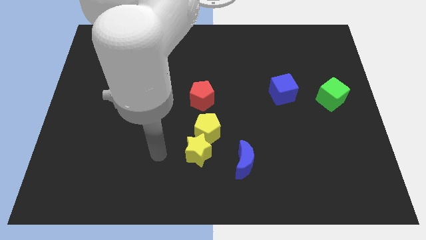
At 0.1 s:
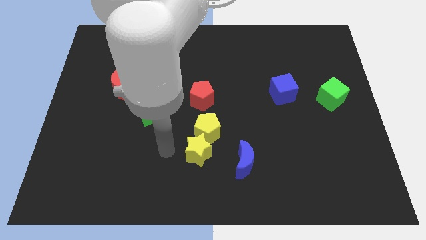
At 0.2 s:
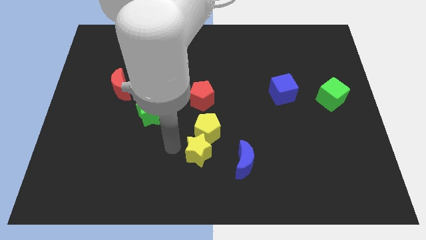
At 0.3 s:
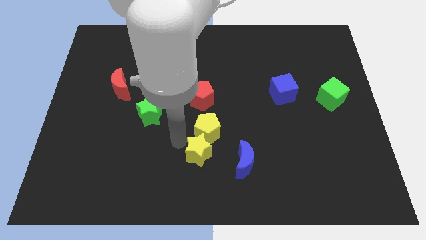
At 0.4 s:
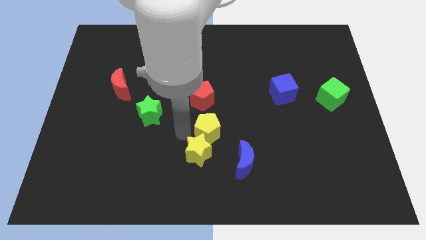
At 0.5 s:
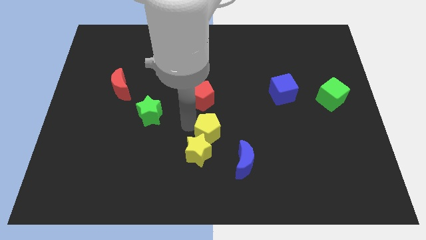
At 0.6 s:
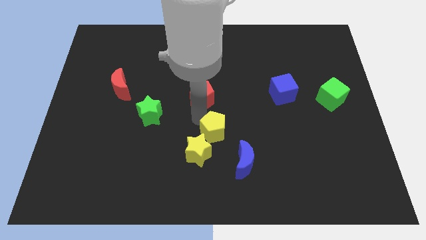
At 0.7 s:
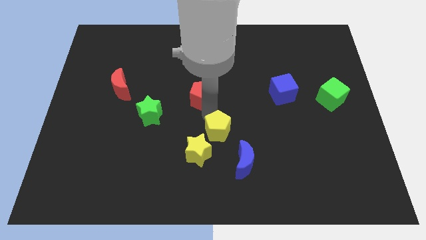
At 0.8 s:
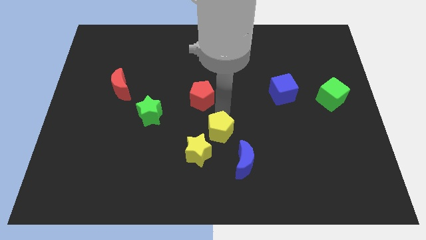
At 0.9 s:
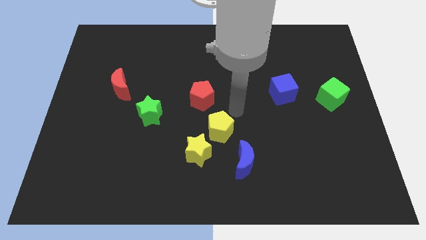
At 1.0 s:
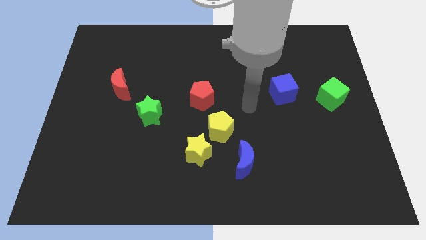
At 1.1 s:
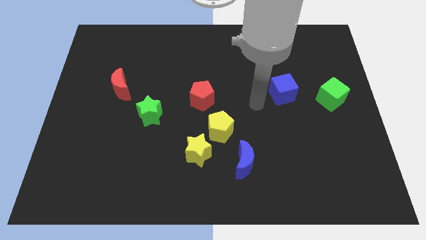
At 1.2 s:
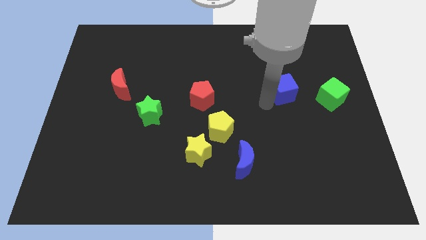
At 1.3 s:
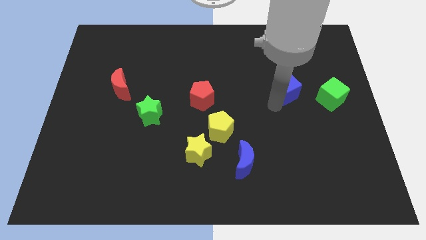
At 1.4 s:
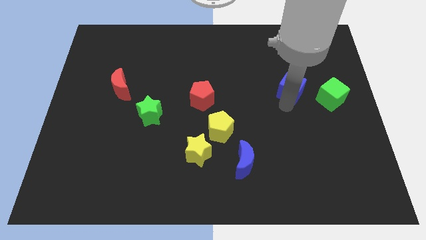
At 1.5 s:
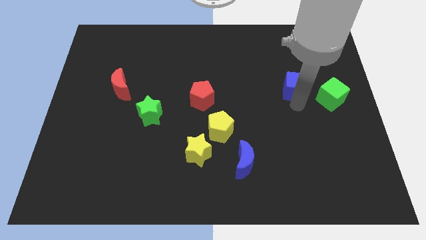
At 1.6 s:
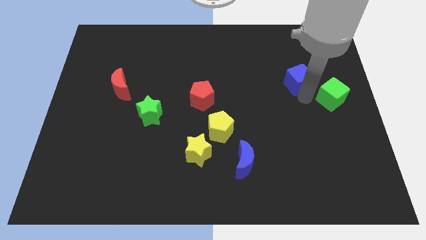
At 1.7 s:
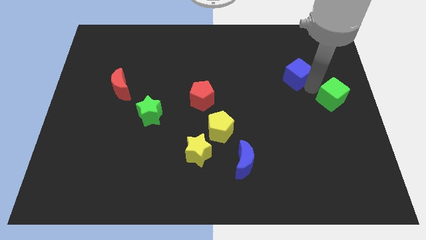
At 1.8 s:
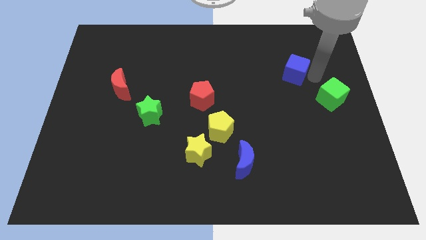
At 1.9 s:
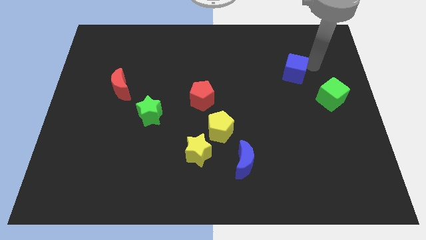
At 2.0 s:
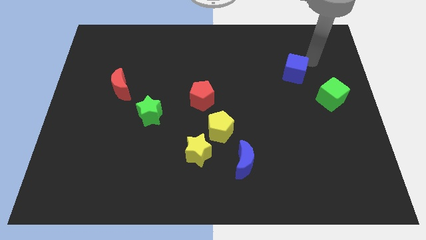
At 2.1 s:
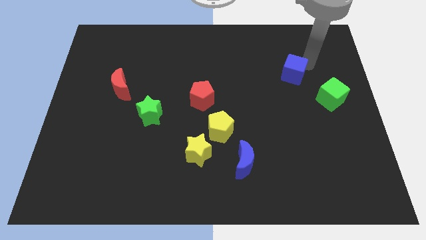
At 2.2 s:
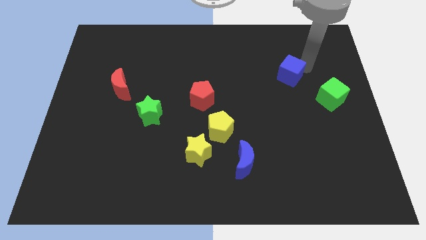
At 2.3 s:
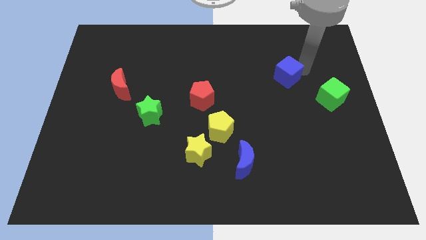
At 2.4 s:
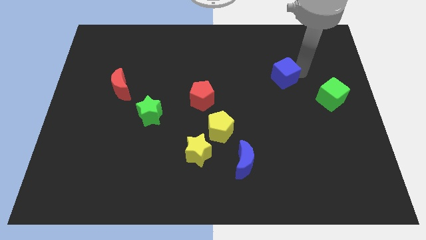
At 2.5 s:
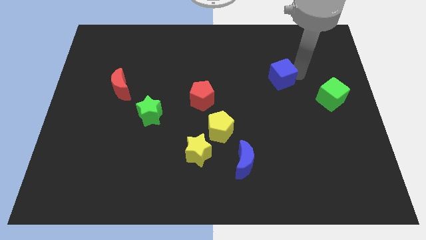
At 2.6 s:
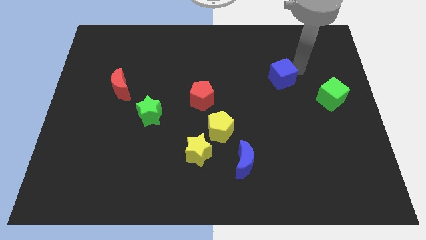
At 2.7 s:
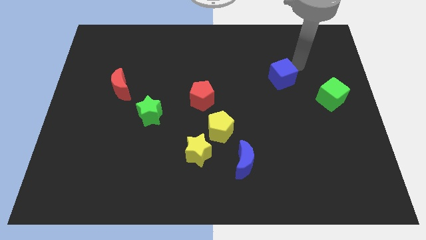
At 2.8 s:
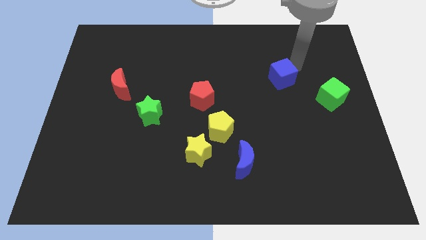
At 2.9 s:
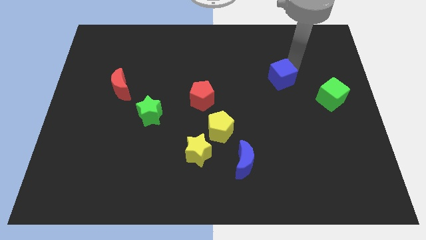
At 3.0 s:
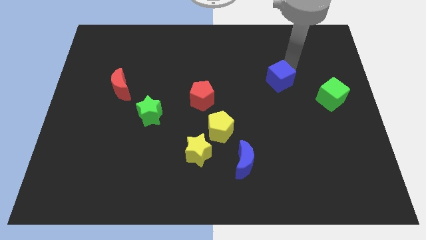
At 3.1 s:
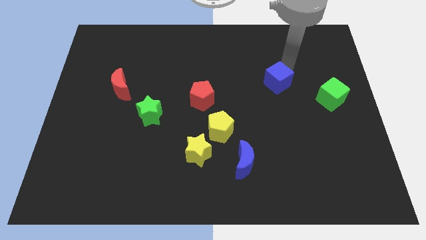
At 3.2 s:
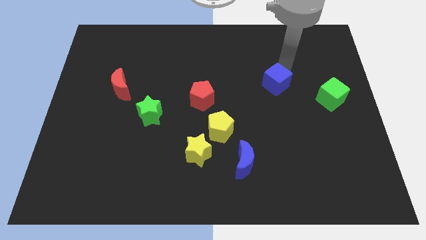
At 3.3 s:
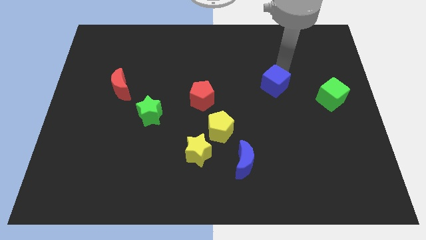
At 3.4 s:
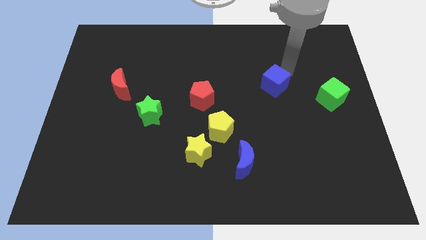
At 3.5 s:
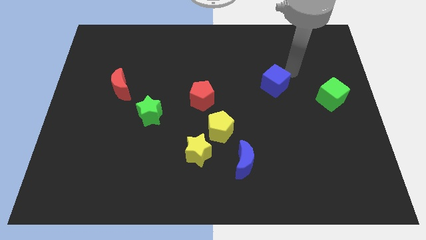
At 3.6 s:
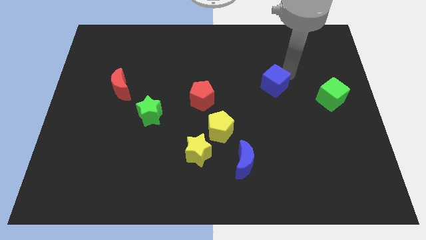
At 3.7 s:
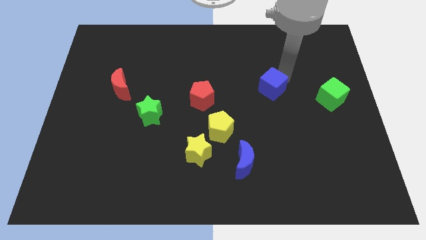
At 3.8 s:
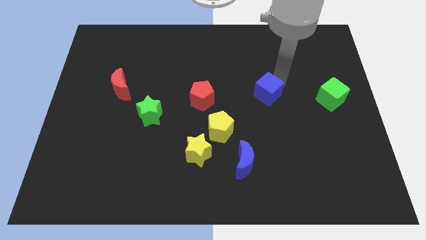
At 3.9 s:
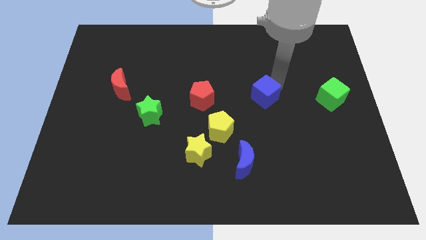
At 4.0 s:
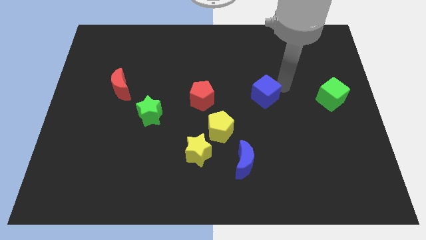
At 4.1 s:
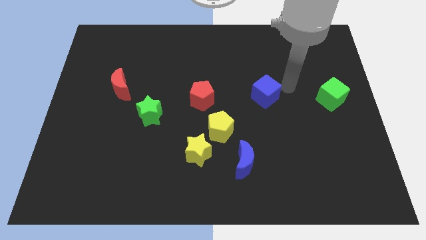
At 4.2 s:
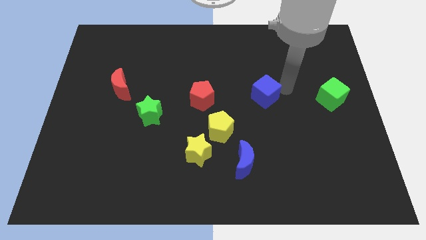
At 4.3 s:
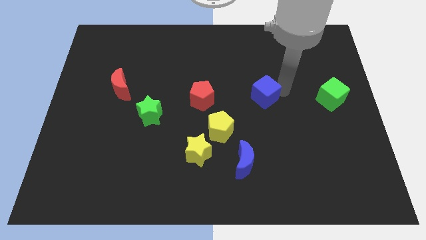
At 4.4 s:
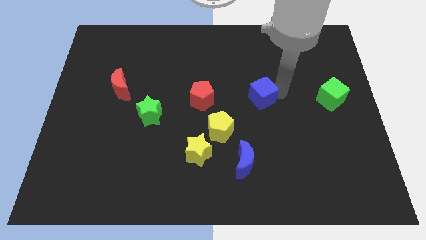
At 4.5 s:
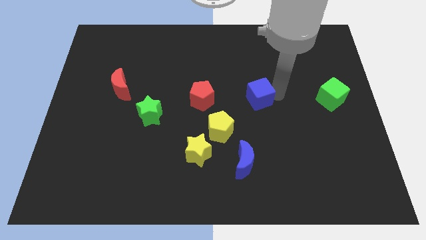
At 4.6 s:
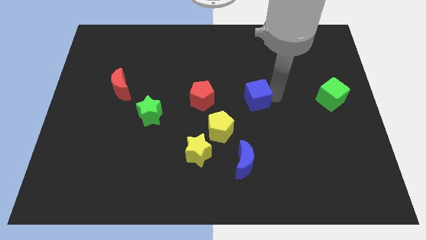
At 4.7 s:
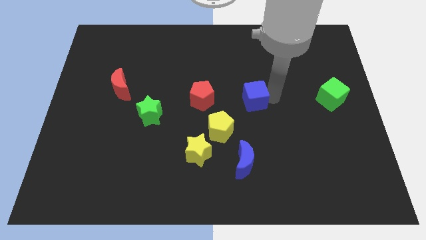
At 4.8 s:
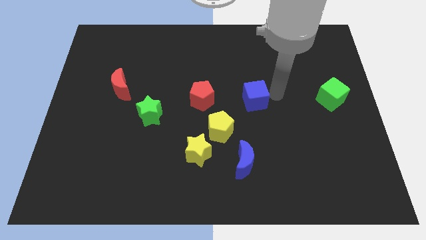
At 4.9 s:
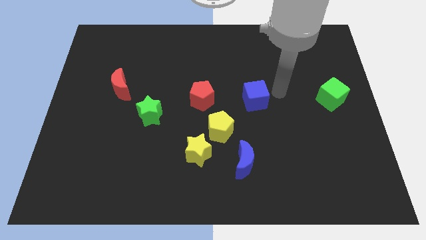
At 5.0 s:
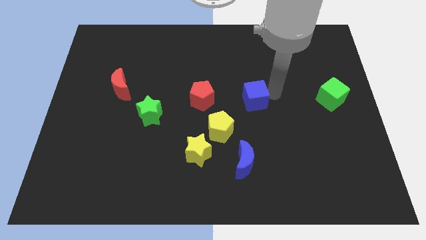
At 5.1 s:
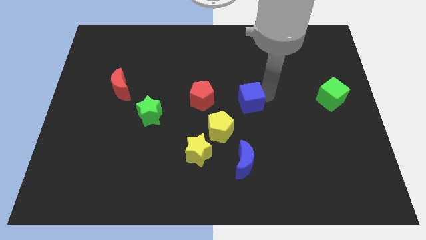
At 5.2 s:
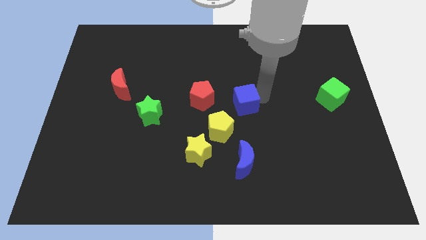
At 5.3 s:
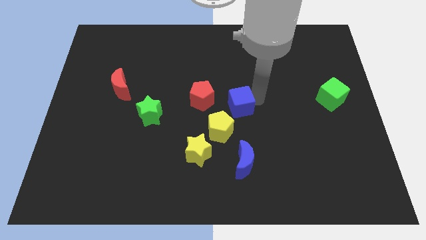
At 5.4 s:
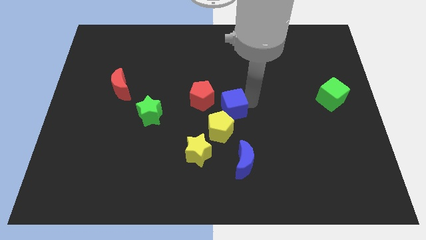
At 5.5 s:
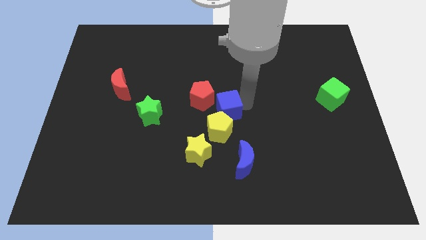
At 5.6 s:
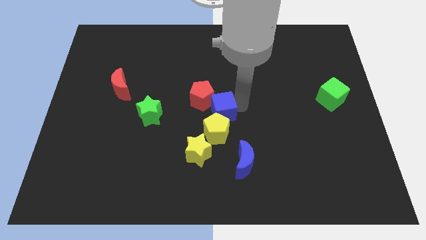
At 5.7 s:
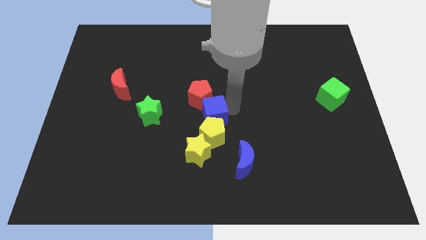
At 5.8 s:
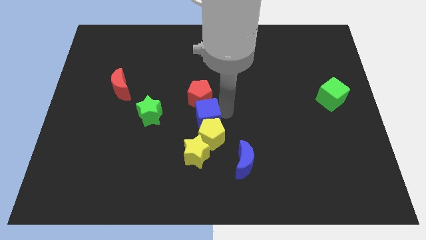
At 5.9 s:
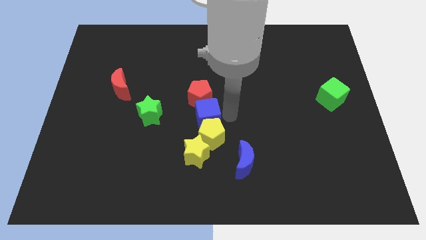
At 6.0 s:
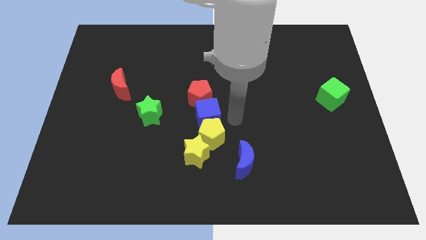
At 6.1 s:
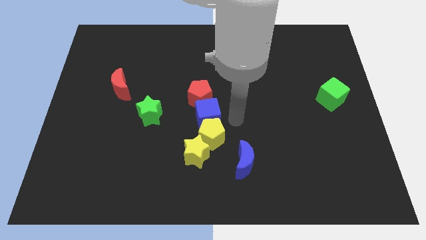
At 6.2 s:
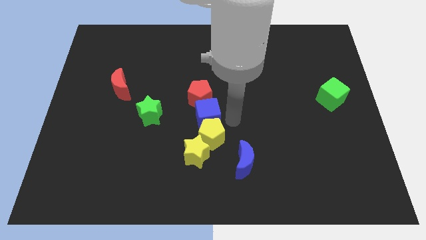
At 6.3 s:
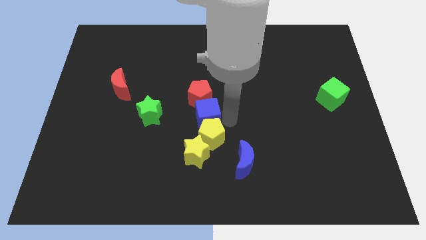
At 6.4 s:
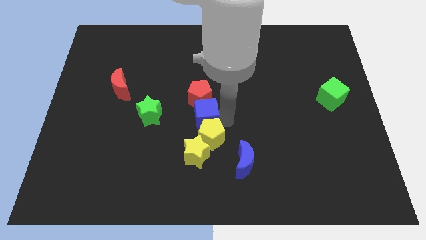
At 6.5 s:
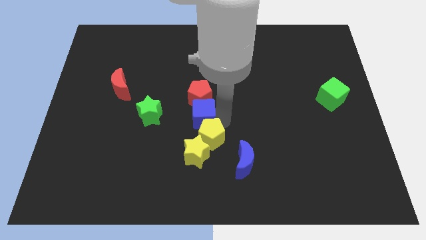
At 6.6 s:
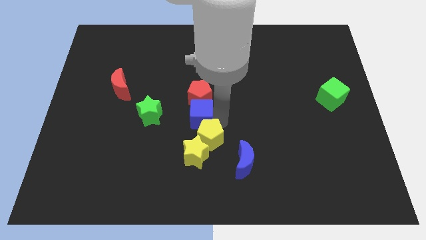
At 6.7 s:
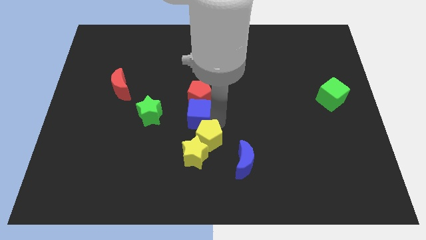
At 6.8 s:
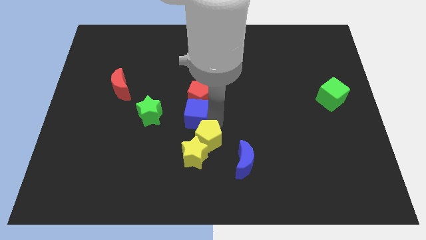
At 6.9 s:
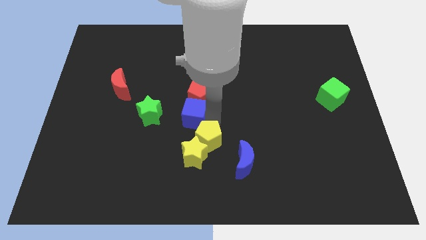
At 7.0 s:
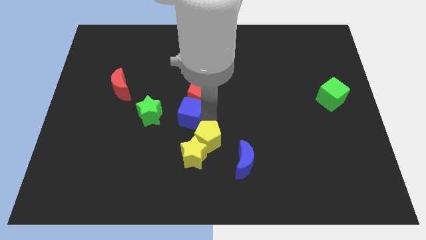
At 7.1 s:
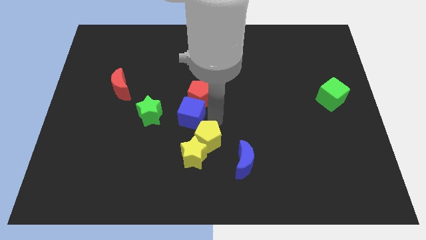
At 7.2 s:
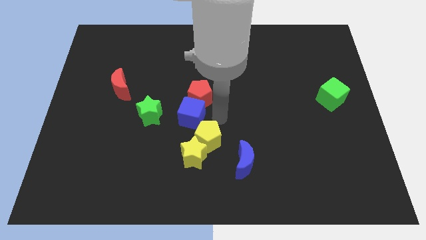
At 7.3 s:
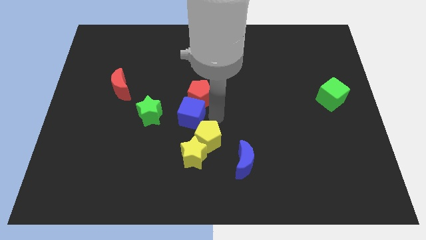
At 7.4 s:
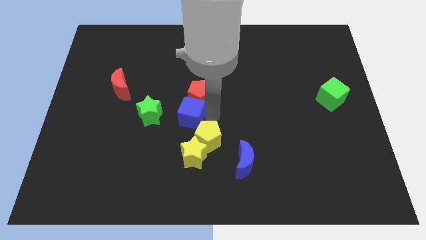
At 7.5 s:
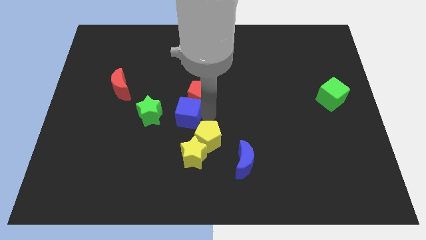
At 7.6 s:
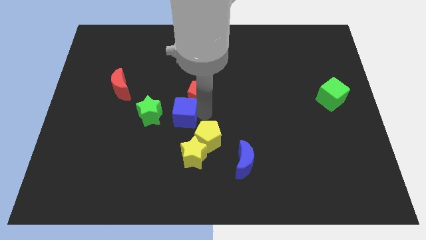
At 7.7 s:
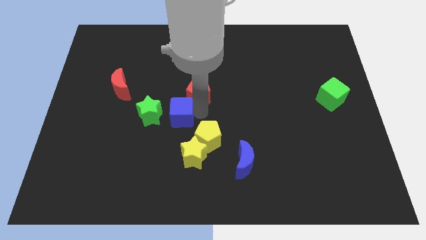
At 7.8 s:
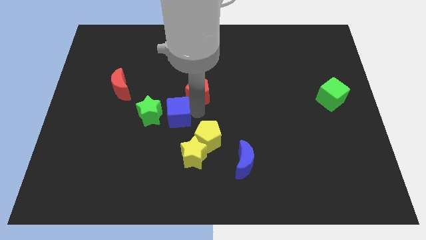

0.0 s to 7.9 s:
push the blue cube close to the green star

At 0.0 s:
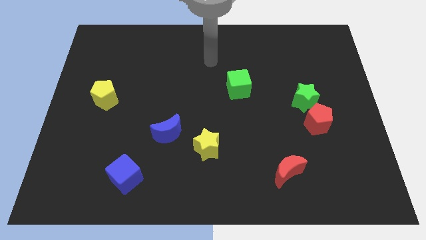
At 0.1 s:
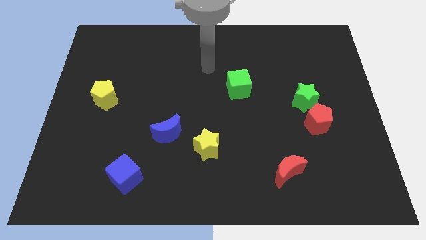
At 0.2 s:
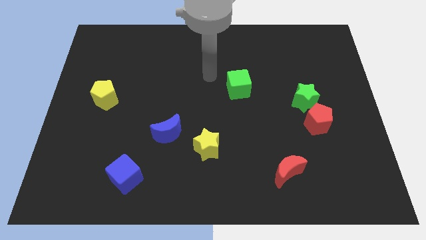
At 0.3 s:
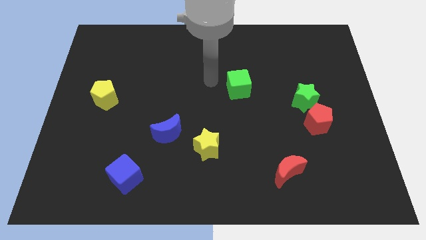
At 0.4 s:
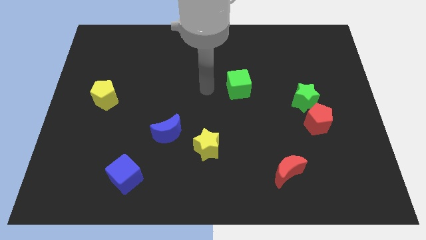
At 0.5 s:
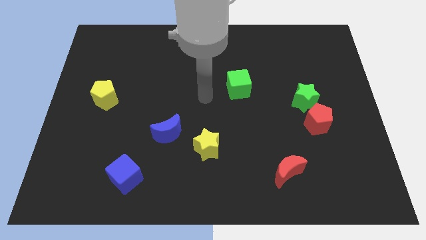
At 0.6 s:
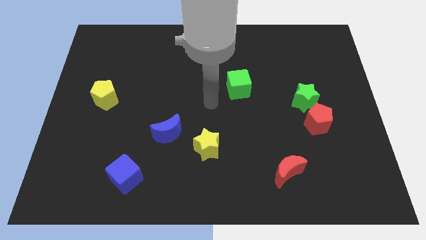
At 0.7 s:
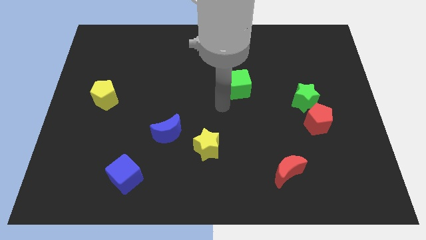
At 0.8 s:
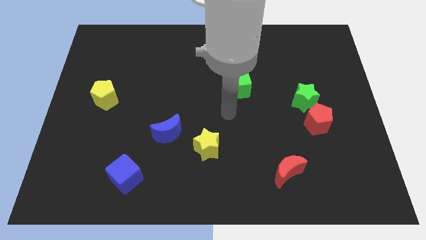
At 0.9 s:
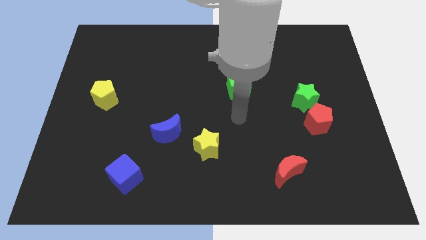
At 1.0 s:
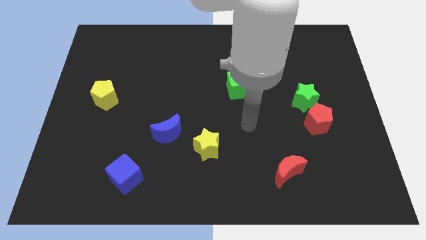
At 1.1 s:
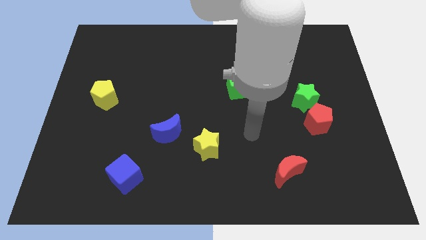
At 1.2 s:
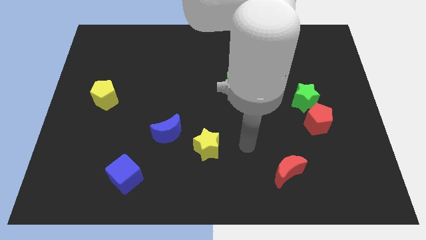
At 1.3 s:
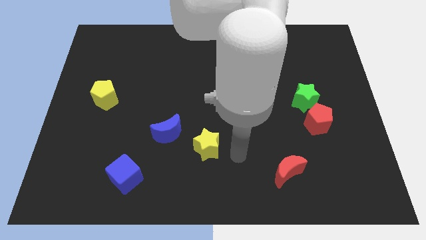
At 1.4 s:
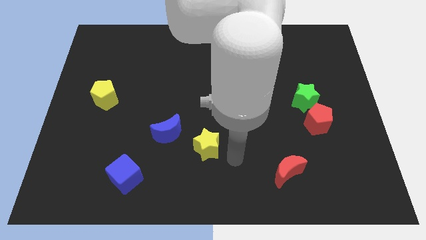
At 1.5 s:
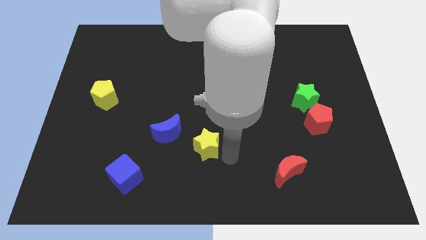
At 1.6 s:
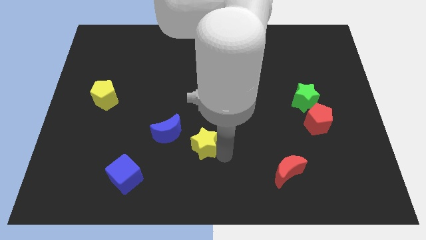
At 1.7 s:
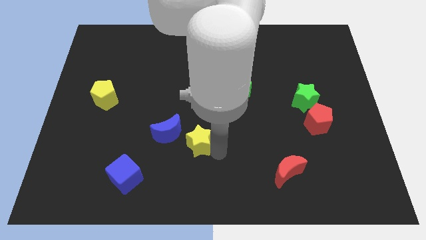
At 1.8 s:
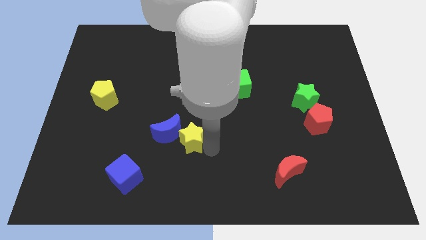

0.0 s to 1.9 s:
move the yellow star close to the blue moon
